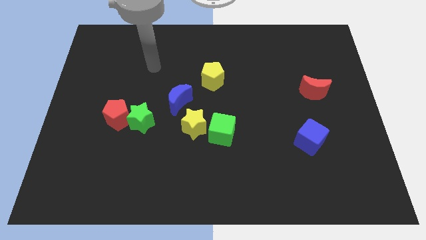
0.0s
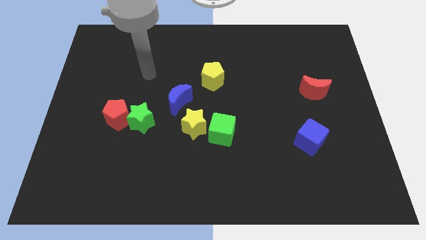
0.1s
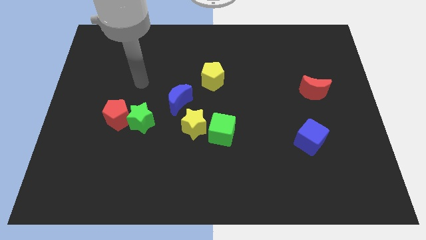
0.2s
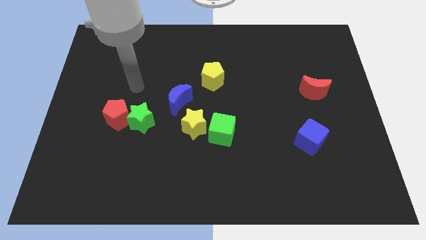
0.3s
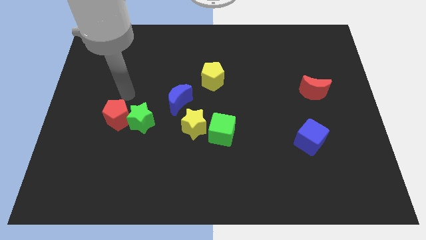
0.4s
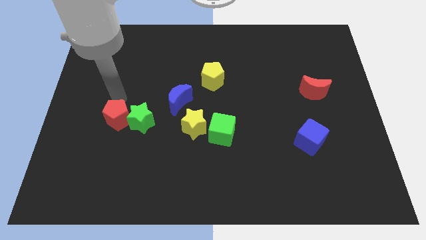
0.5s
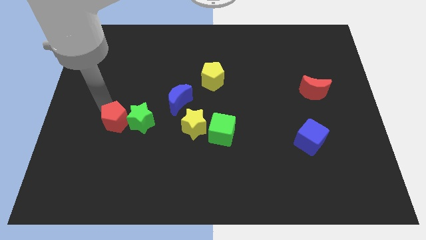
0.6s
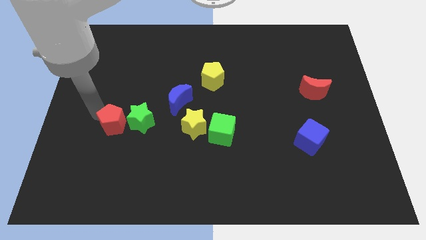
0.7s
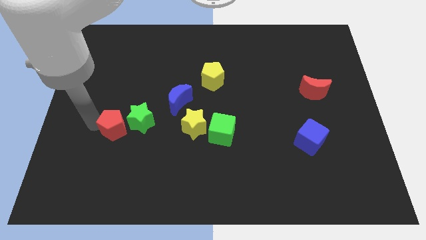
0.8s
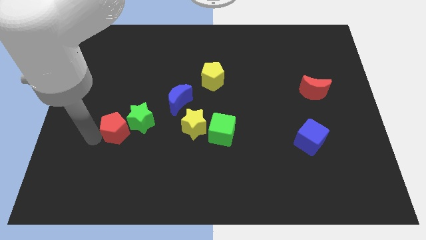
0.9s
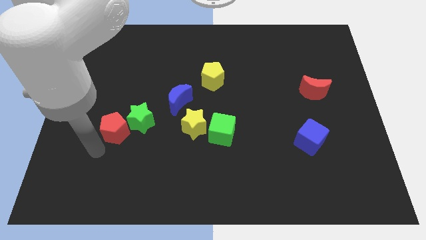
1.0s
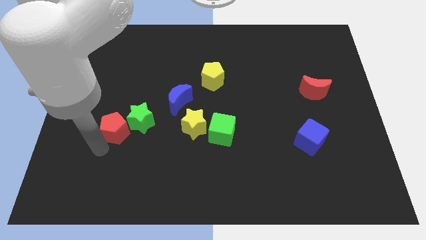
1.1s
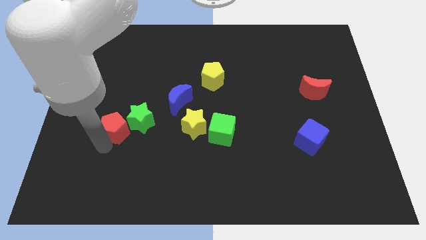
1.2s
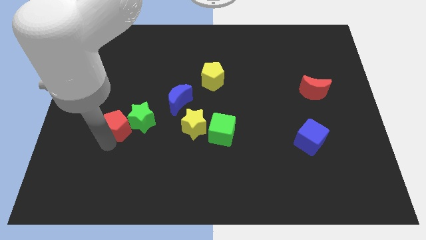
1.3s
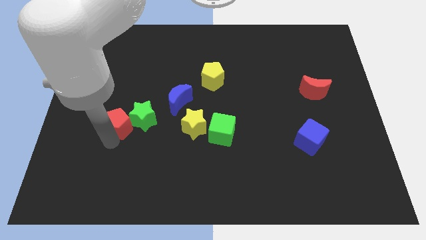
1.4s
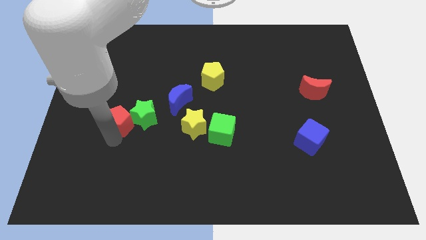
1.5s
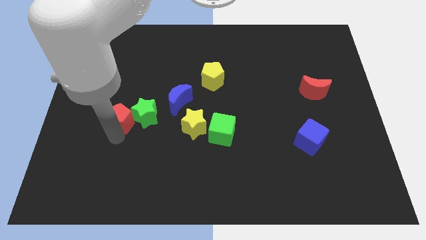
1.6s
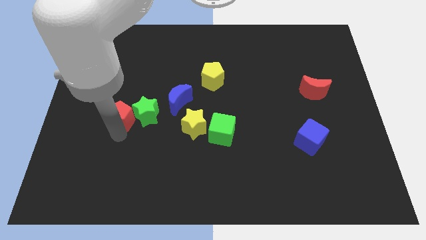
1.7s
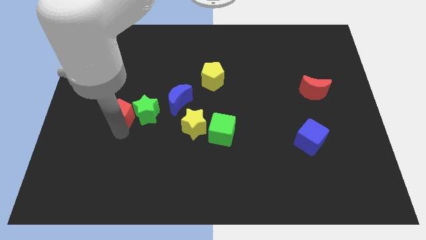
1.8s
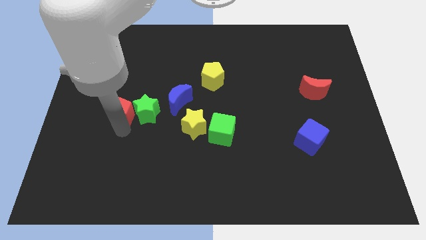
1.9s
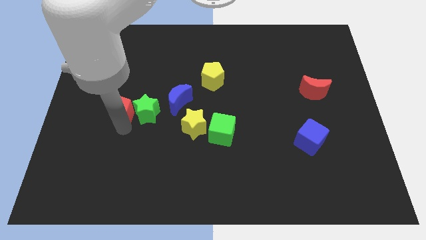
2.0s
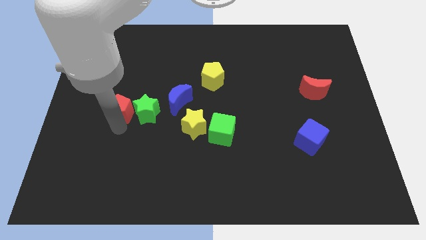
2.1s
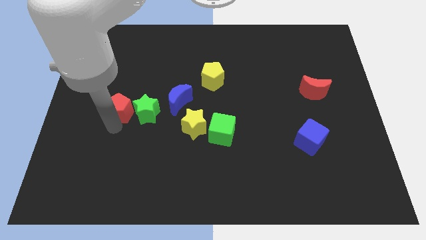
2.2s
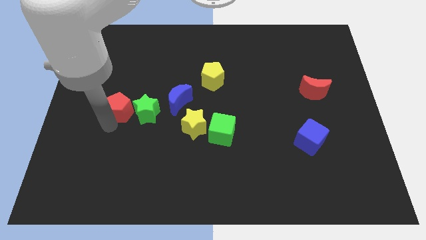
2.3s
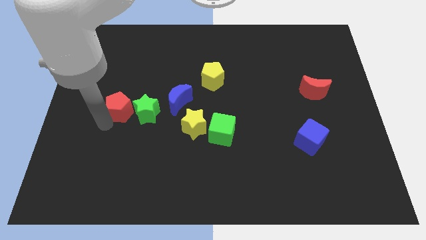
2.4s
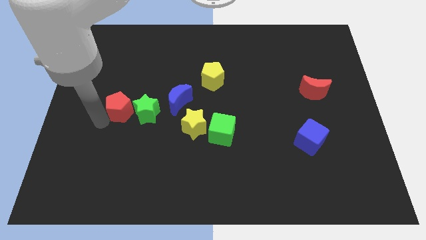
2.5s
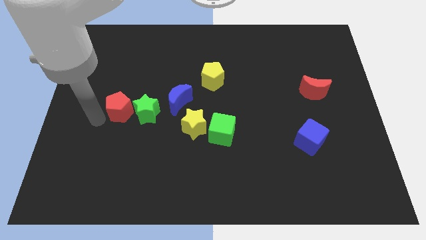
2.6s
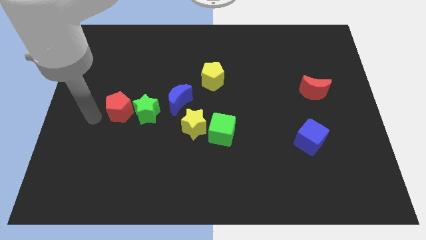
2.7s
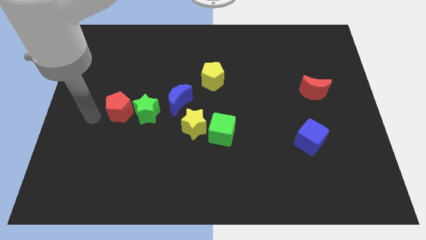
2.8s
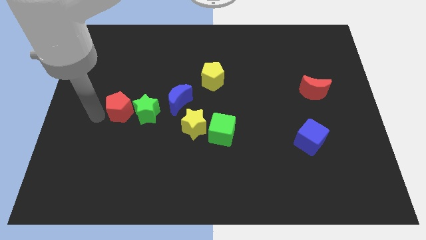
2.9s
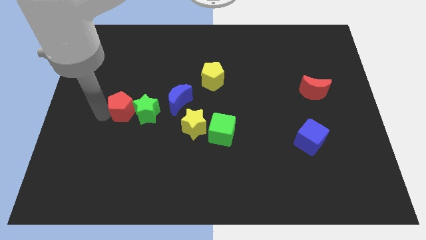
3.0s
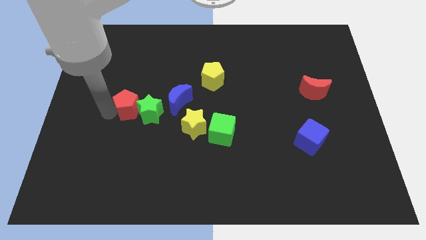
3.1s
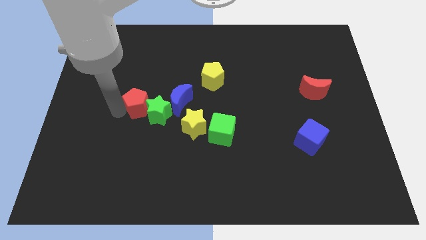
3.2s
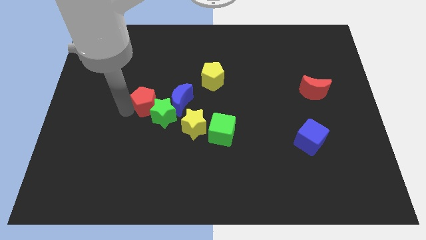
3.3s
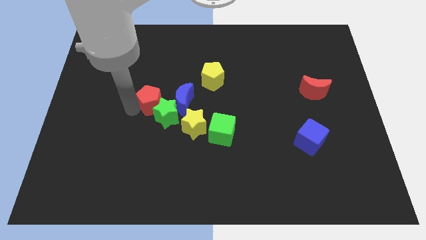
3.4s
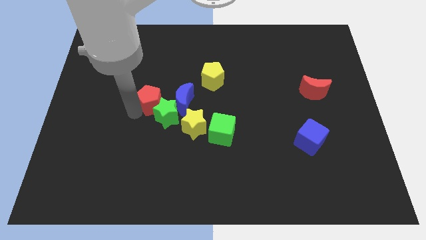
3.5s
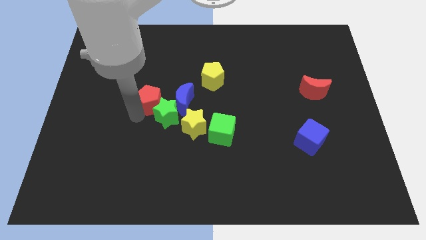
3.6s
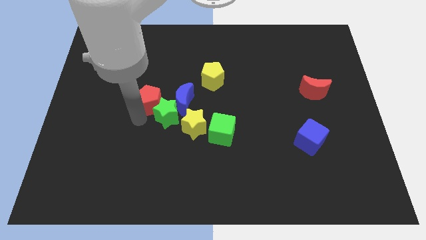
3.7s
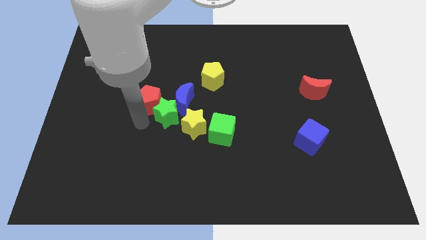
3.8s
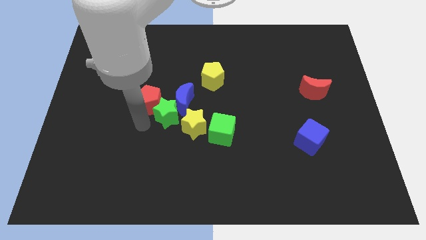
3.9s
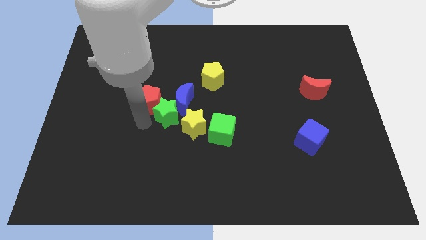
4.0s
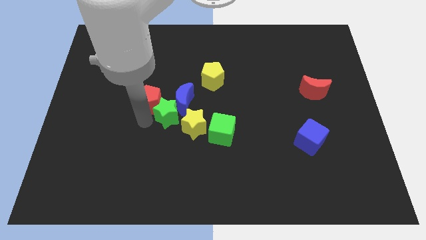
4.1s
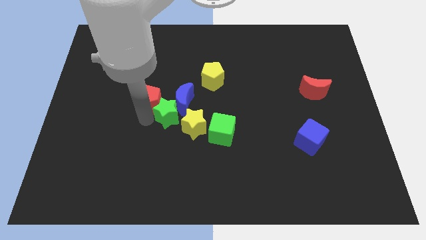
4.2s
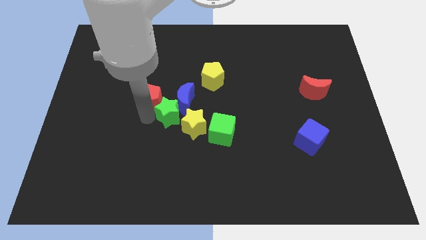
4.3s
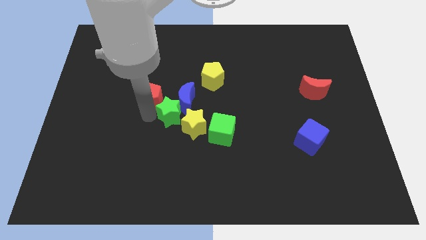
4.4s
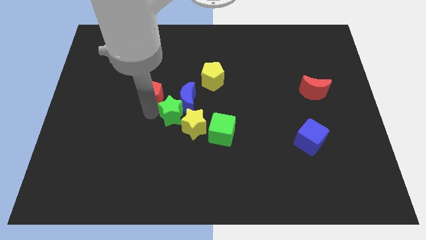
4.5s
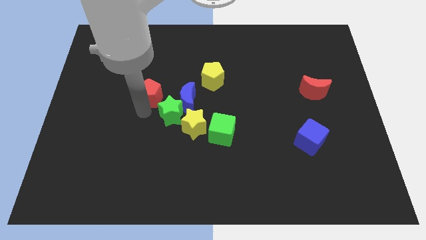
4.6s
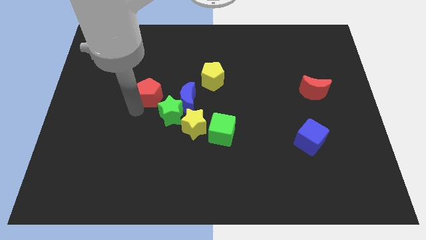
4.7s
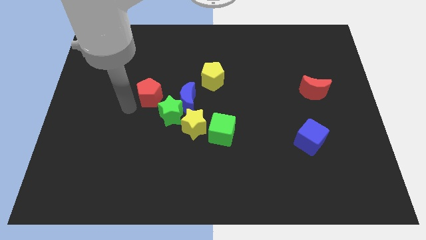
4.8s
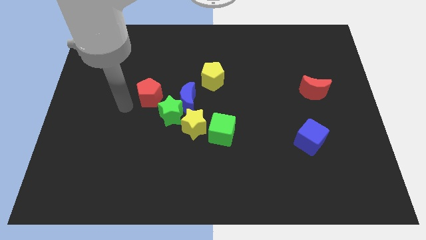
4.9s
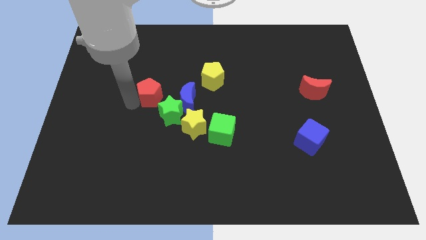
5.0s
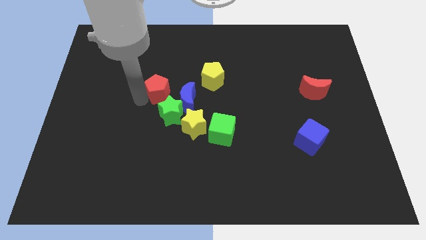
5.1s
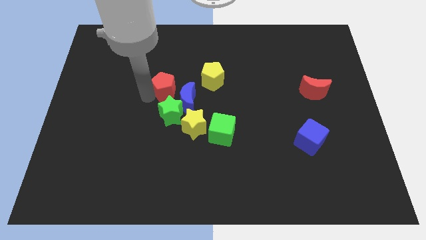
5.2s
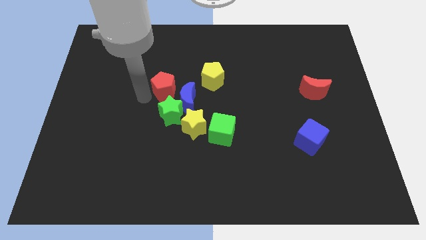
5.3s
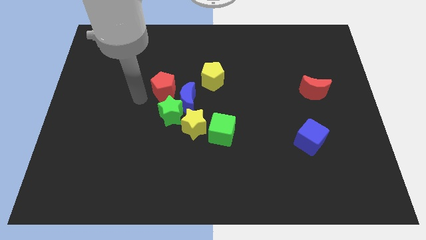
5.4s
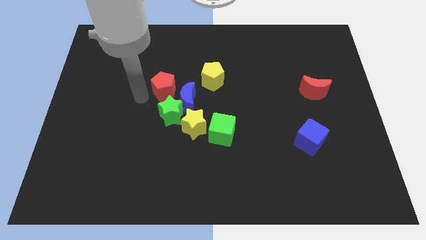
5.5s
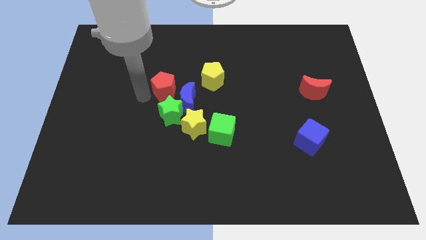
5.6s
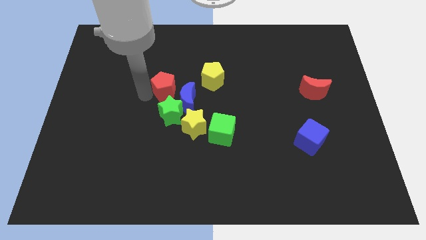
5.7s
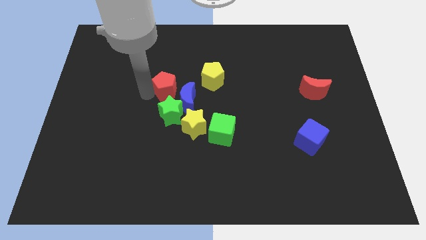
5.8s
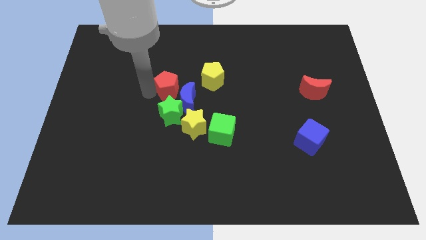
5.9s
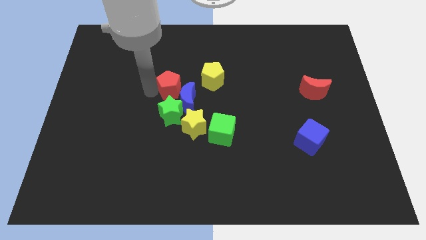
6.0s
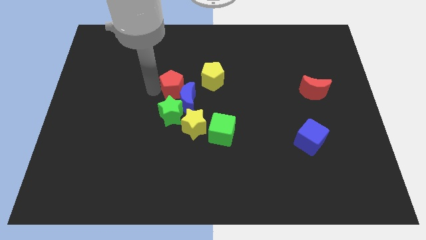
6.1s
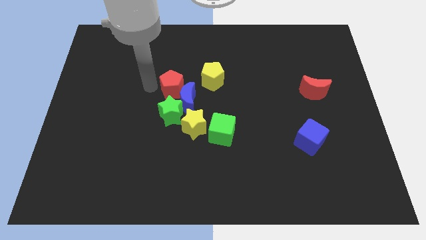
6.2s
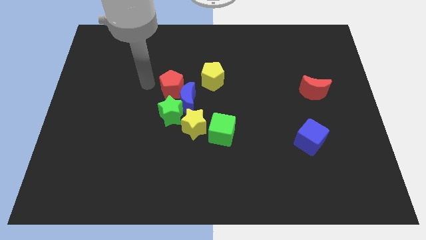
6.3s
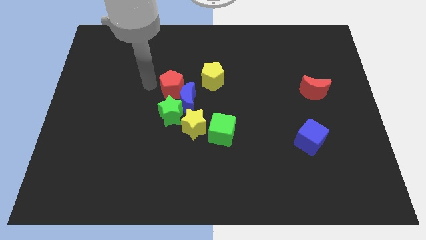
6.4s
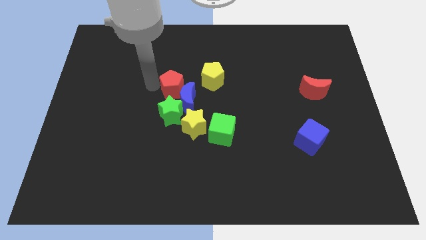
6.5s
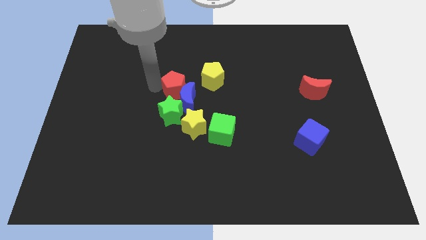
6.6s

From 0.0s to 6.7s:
put the red pentagon to the top of the yellow star
